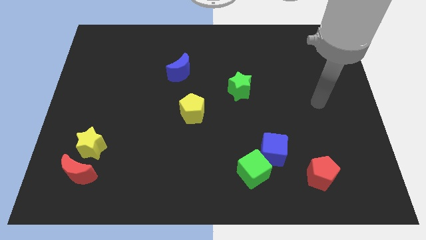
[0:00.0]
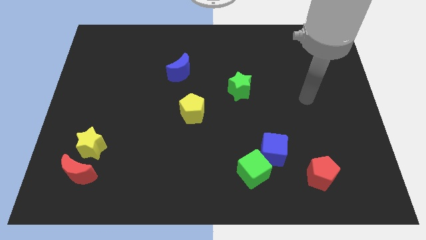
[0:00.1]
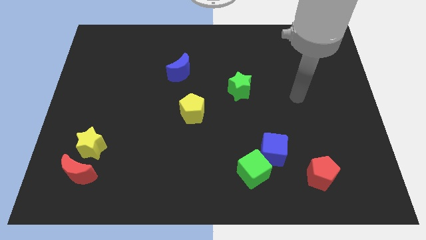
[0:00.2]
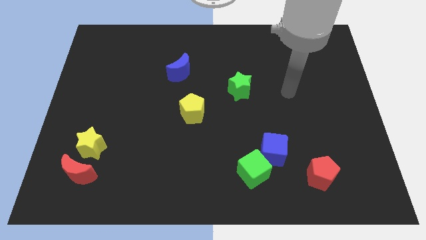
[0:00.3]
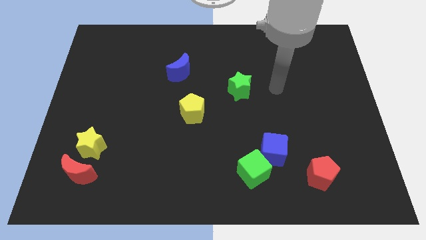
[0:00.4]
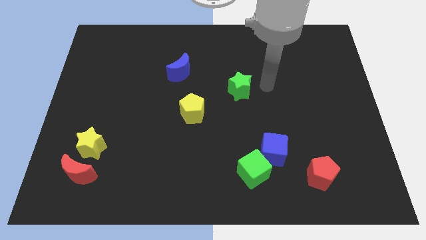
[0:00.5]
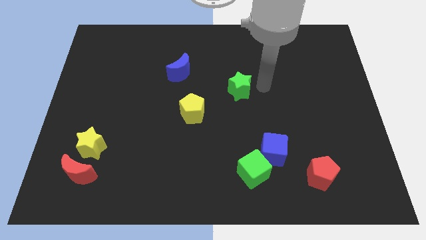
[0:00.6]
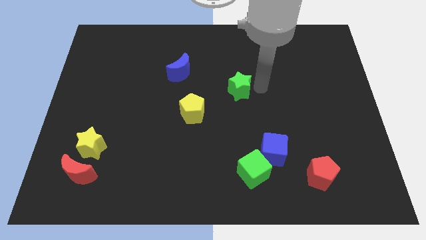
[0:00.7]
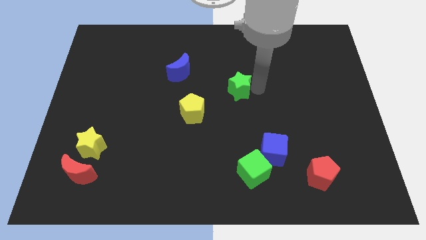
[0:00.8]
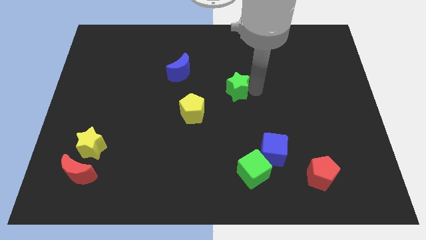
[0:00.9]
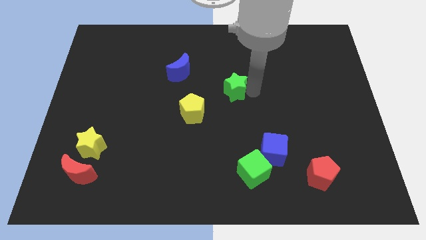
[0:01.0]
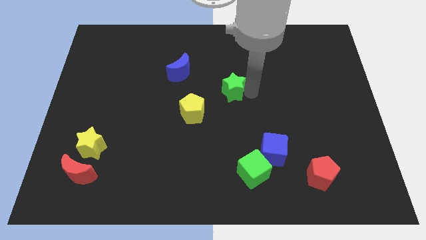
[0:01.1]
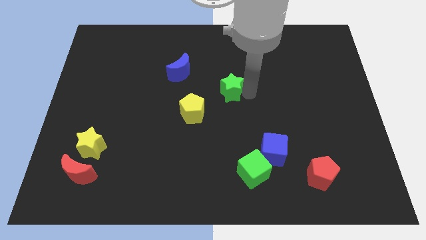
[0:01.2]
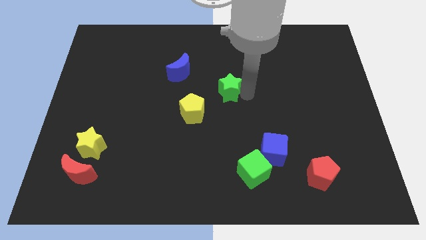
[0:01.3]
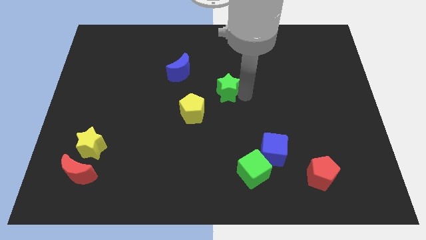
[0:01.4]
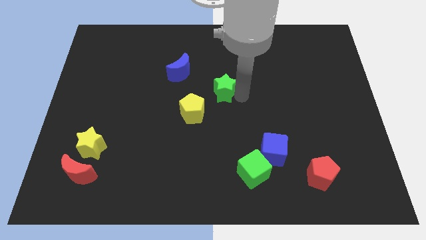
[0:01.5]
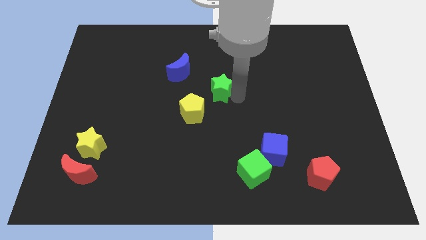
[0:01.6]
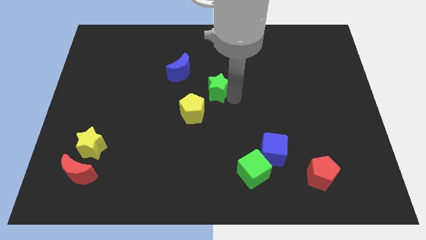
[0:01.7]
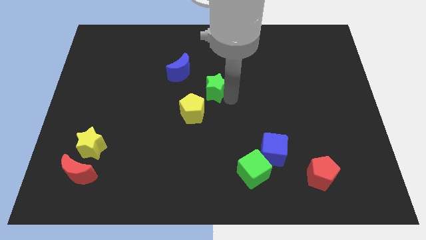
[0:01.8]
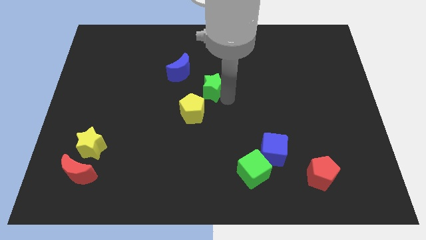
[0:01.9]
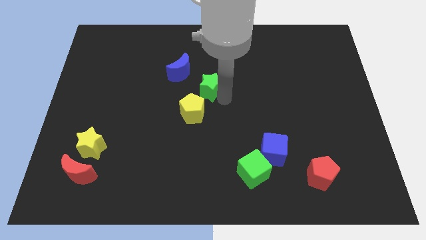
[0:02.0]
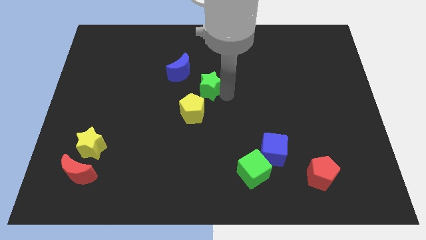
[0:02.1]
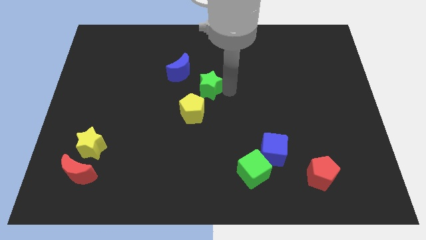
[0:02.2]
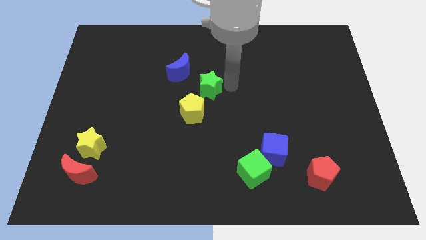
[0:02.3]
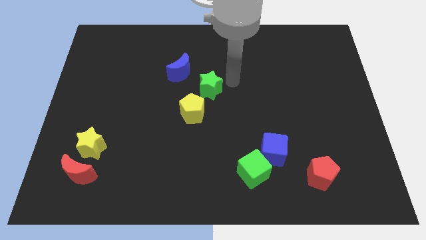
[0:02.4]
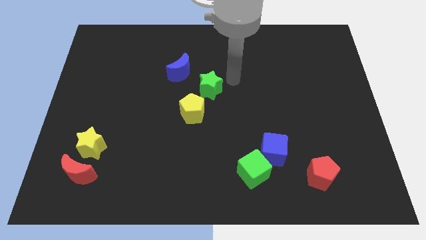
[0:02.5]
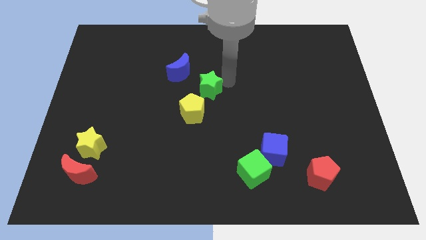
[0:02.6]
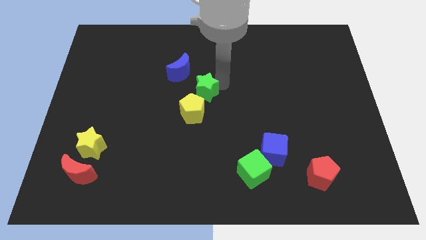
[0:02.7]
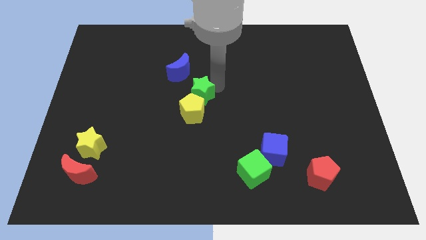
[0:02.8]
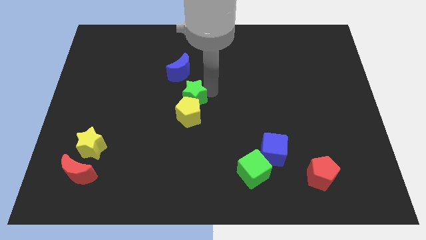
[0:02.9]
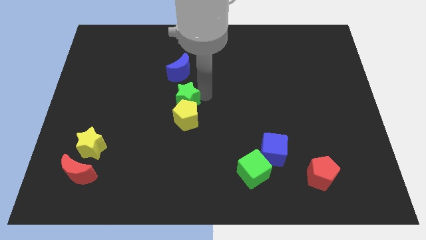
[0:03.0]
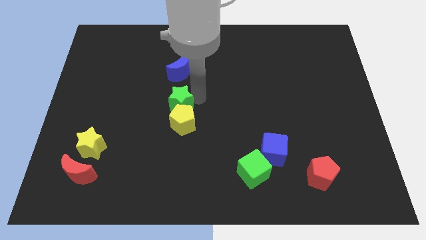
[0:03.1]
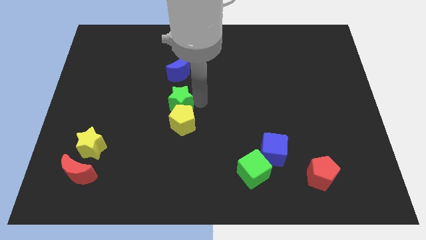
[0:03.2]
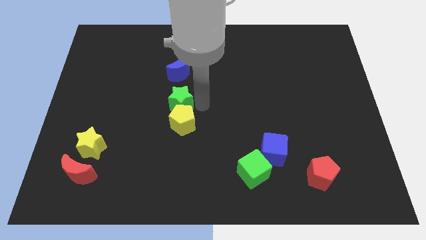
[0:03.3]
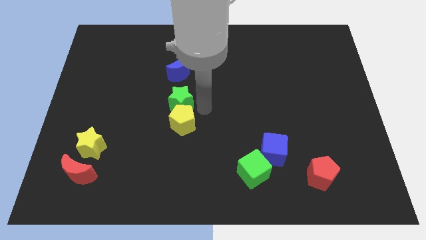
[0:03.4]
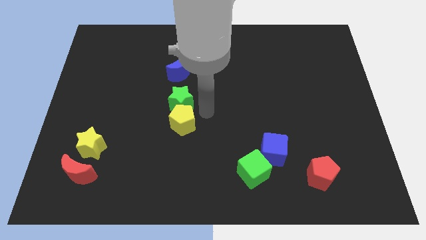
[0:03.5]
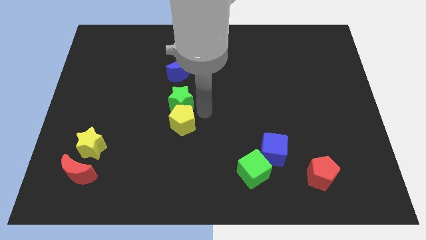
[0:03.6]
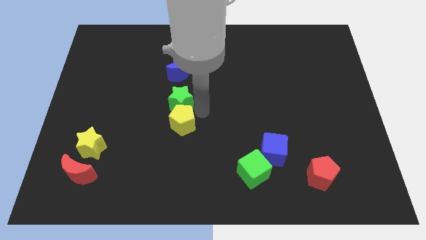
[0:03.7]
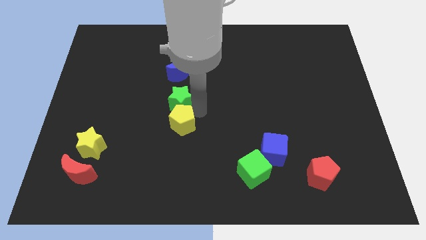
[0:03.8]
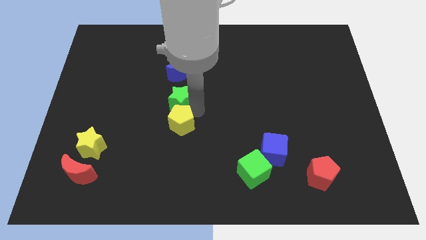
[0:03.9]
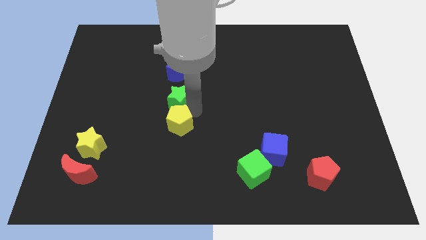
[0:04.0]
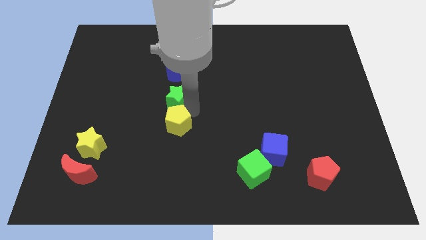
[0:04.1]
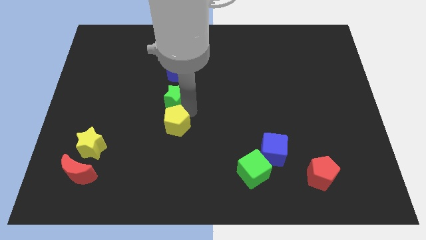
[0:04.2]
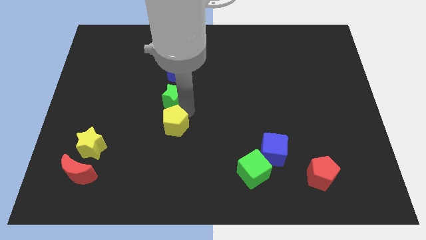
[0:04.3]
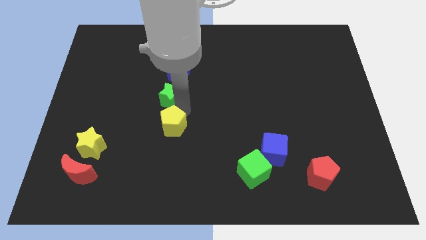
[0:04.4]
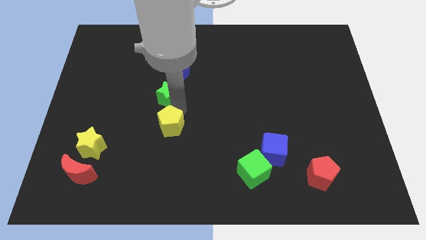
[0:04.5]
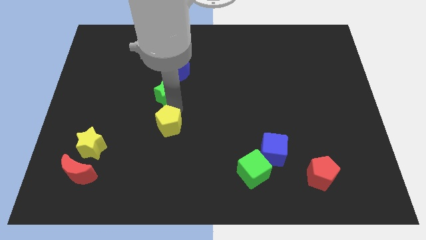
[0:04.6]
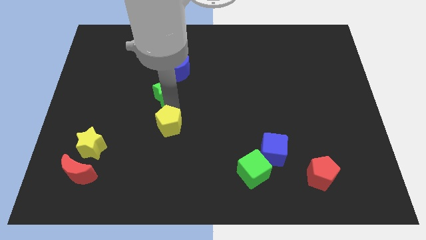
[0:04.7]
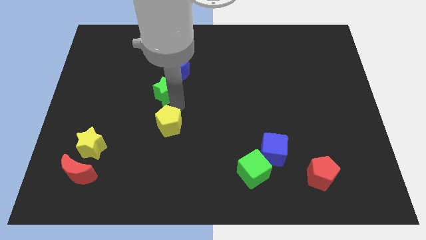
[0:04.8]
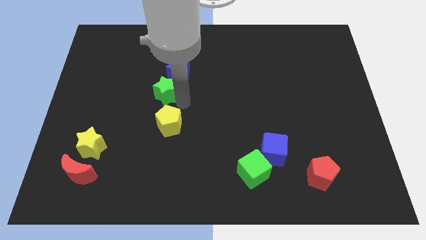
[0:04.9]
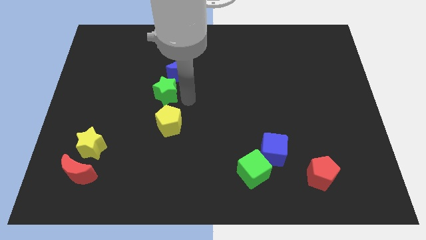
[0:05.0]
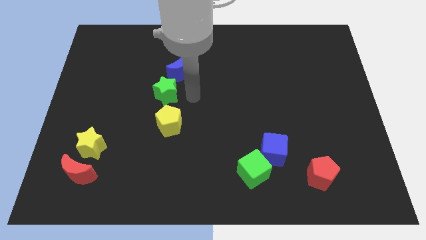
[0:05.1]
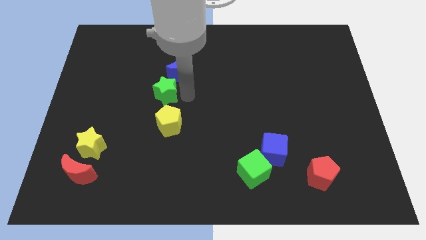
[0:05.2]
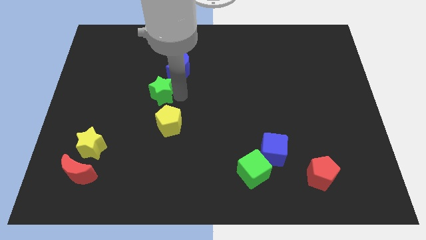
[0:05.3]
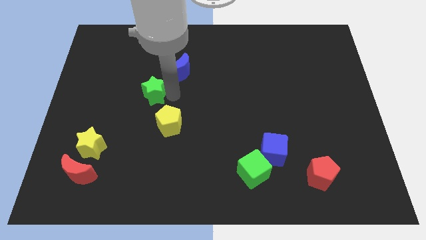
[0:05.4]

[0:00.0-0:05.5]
push the green star to the left

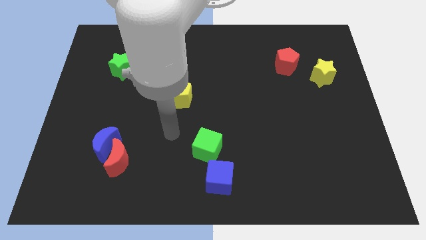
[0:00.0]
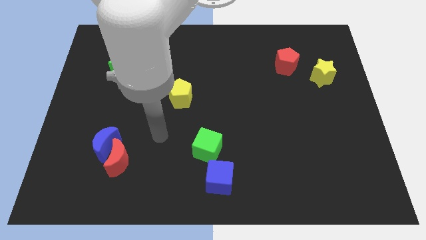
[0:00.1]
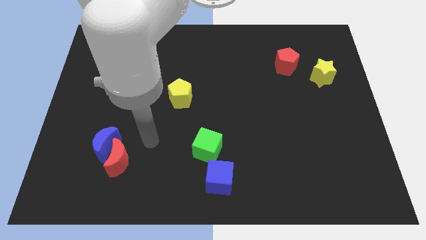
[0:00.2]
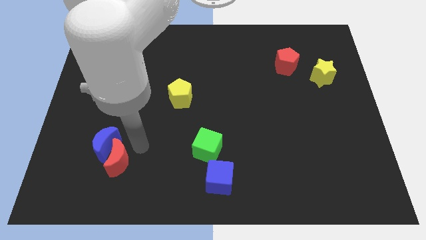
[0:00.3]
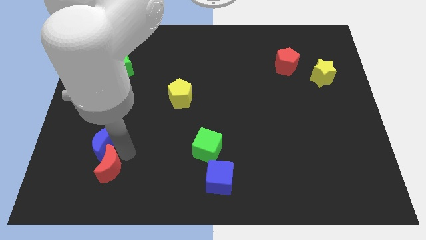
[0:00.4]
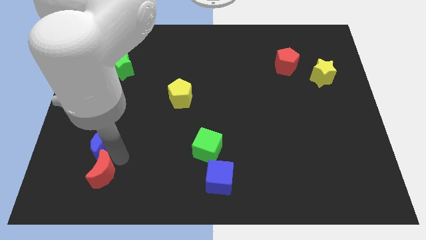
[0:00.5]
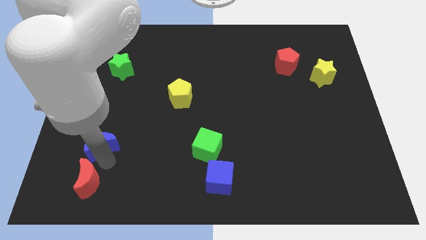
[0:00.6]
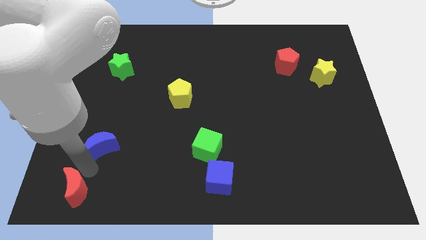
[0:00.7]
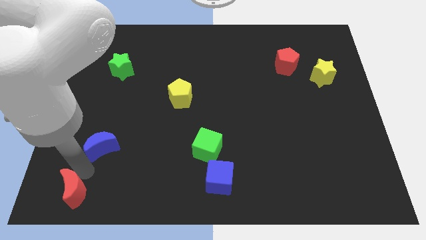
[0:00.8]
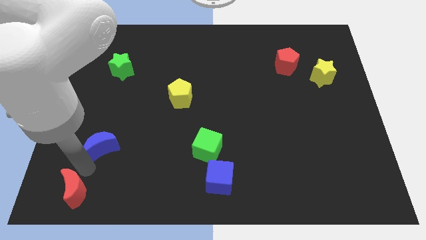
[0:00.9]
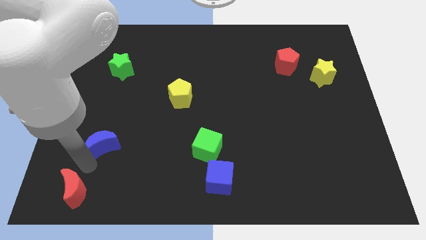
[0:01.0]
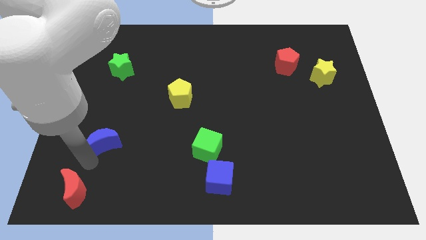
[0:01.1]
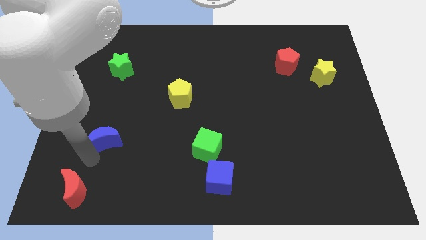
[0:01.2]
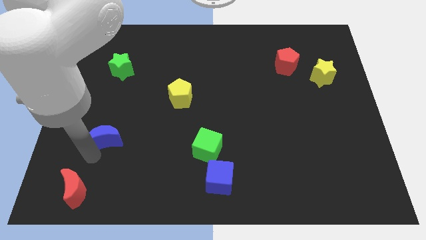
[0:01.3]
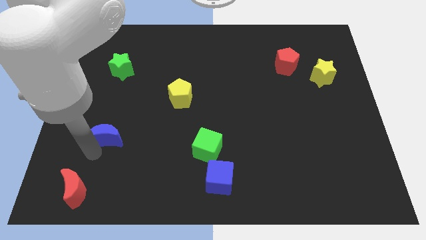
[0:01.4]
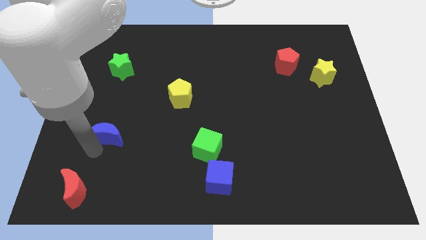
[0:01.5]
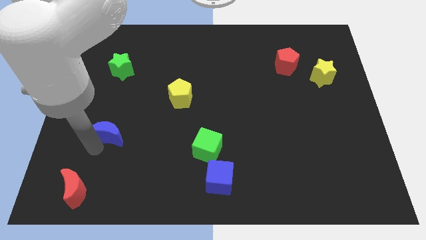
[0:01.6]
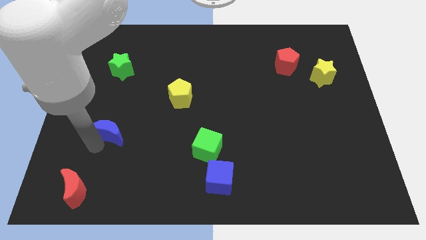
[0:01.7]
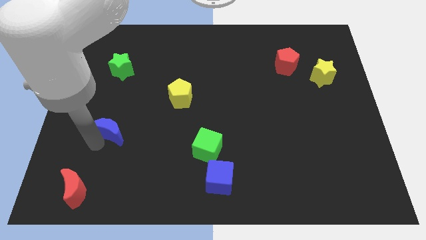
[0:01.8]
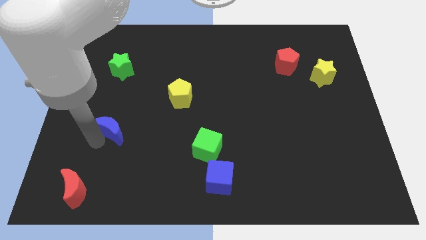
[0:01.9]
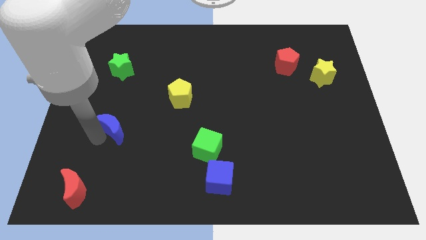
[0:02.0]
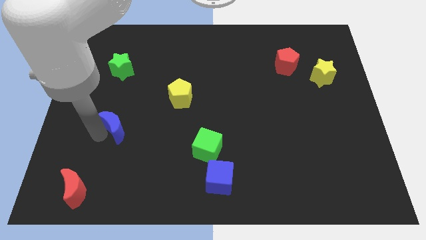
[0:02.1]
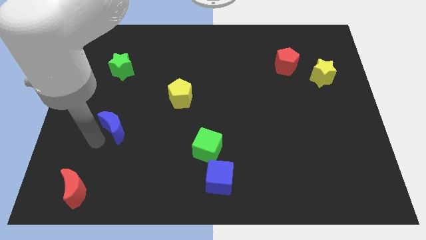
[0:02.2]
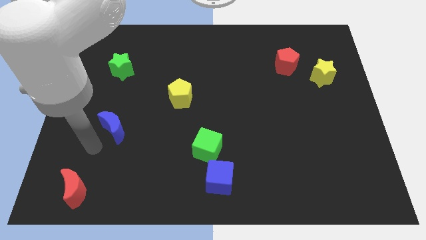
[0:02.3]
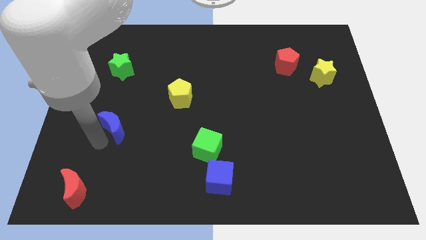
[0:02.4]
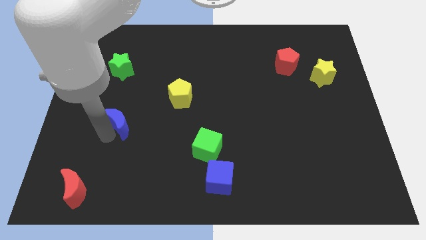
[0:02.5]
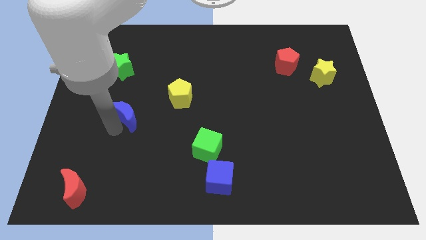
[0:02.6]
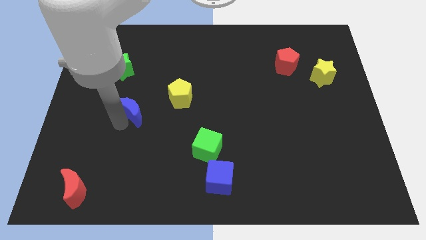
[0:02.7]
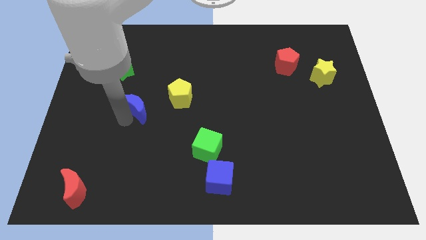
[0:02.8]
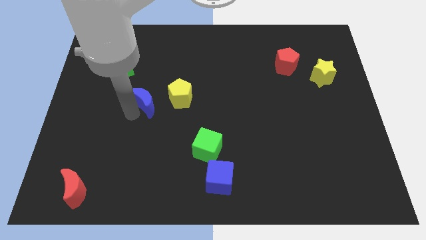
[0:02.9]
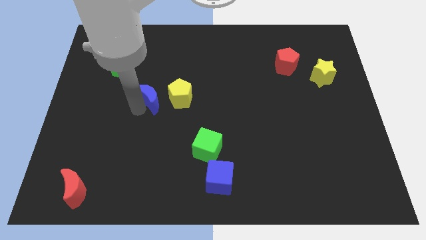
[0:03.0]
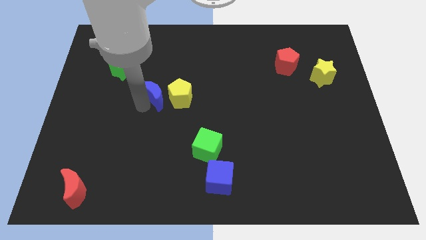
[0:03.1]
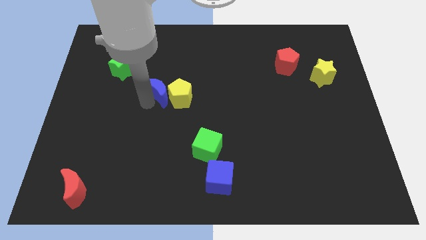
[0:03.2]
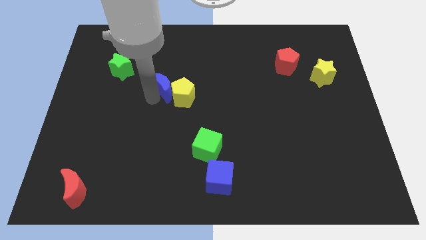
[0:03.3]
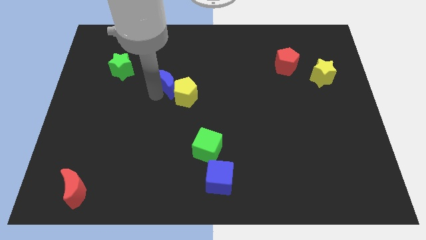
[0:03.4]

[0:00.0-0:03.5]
push the blue moon diagonally up and to the right
